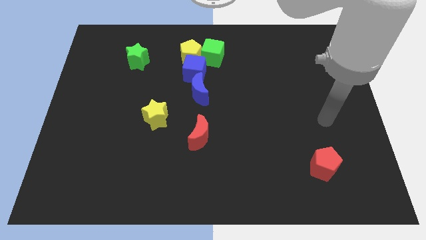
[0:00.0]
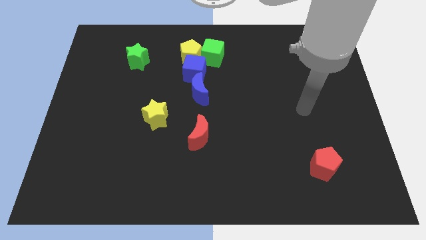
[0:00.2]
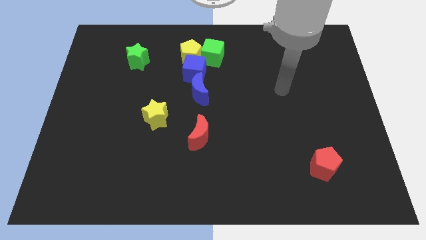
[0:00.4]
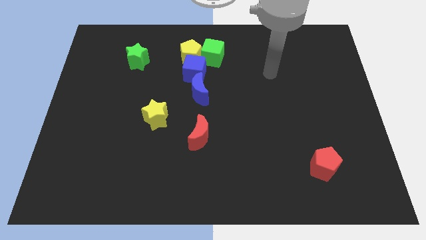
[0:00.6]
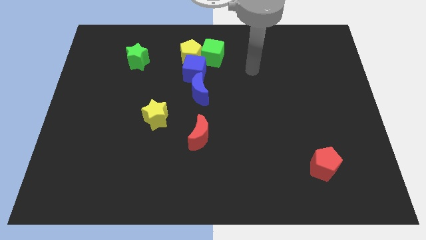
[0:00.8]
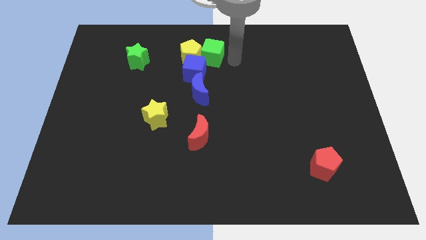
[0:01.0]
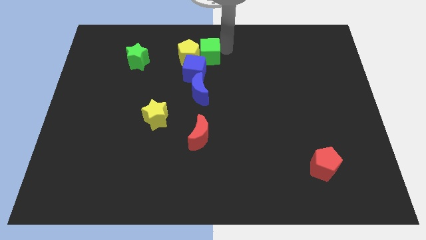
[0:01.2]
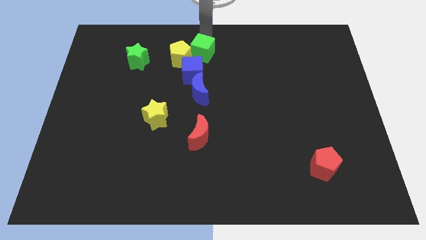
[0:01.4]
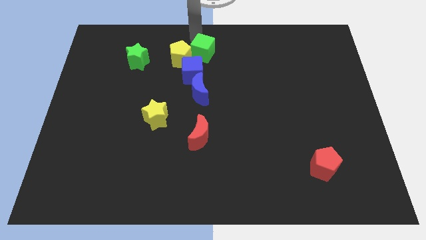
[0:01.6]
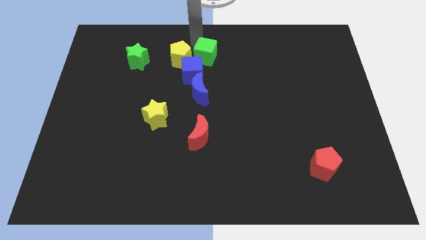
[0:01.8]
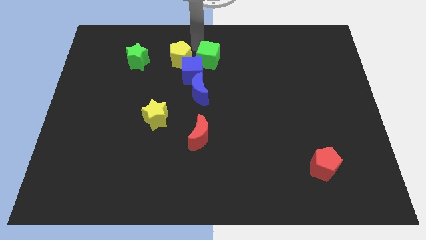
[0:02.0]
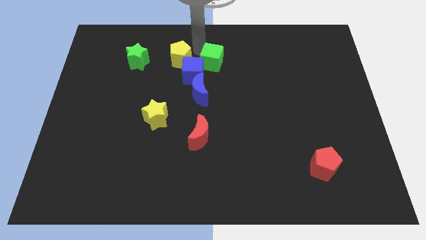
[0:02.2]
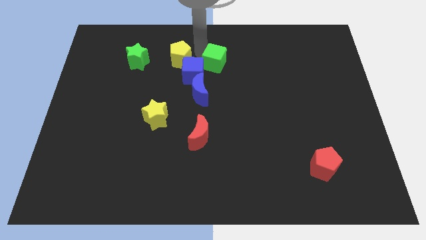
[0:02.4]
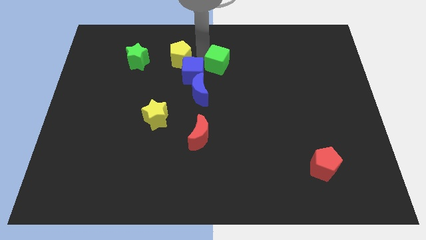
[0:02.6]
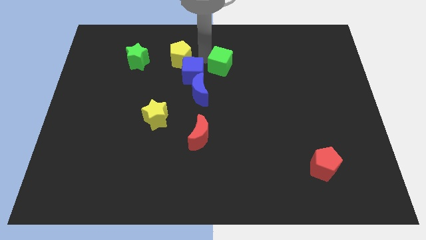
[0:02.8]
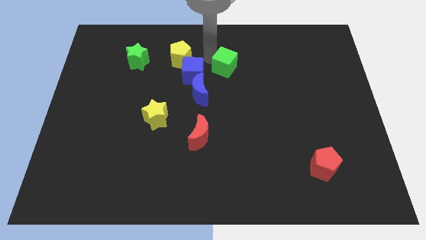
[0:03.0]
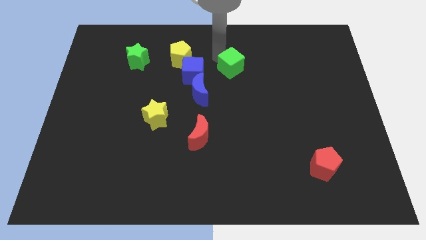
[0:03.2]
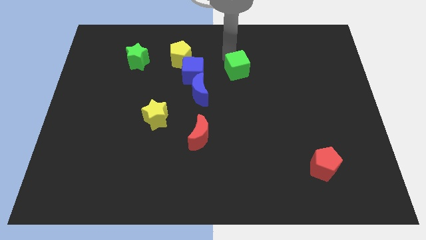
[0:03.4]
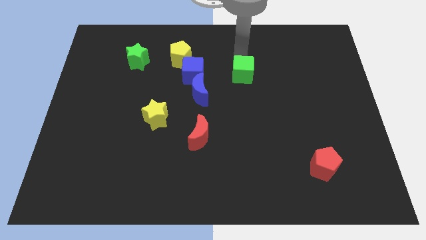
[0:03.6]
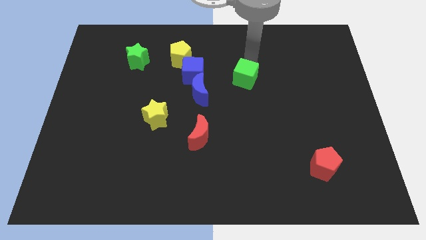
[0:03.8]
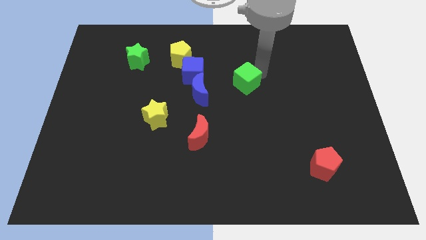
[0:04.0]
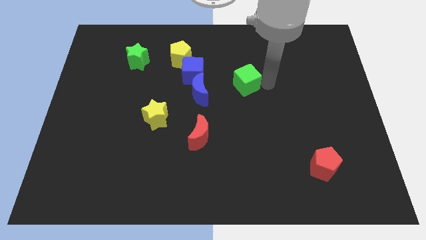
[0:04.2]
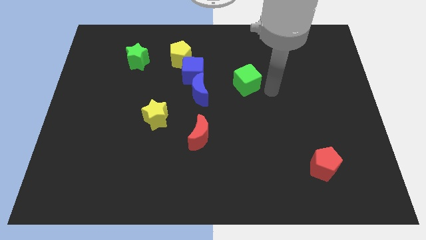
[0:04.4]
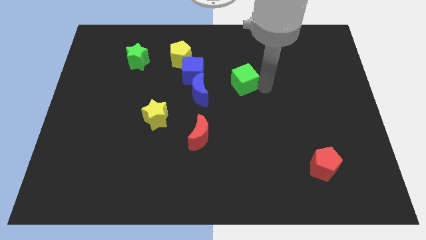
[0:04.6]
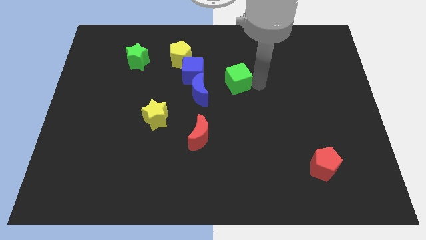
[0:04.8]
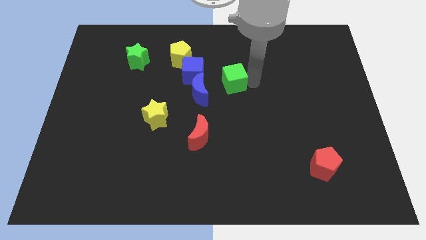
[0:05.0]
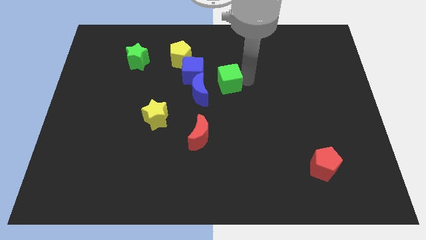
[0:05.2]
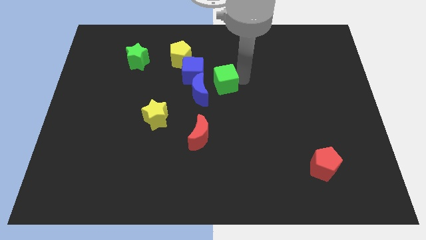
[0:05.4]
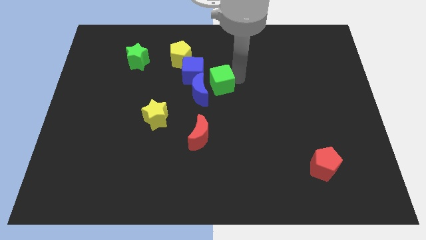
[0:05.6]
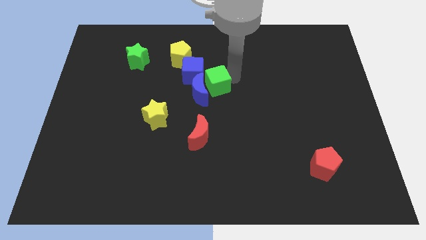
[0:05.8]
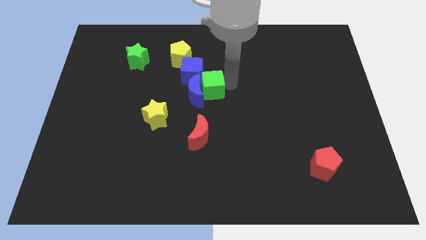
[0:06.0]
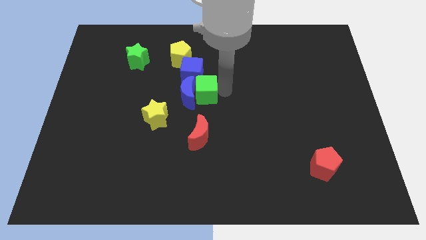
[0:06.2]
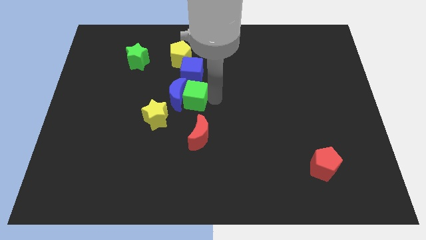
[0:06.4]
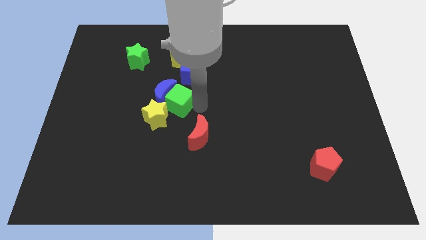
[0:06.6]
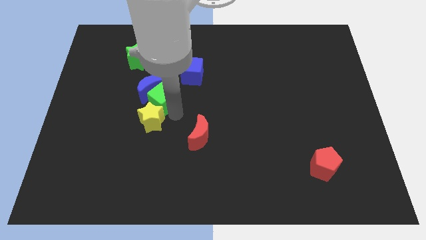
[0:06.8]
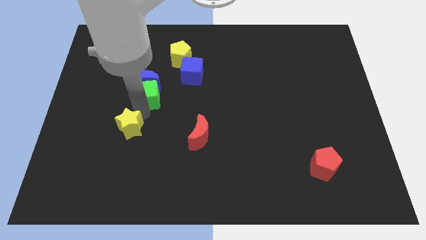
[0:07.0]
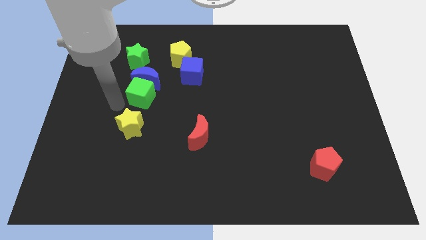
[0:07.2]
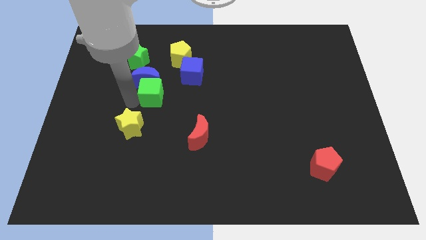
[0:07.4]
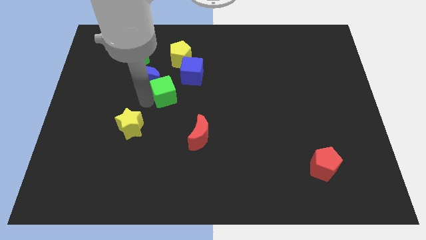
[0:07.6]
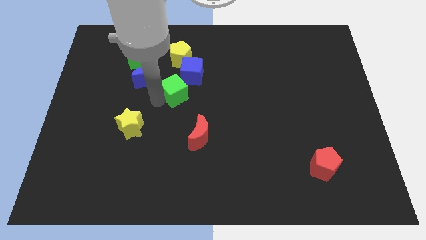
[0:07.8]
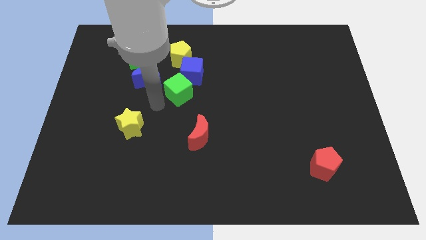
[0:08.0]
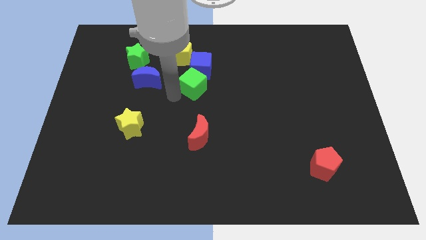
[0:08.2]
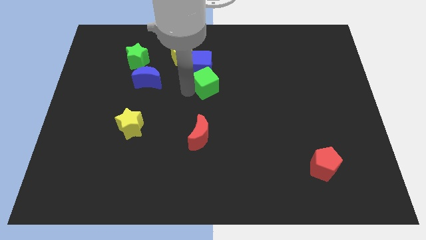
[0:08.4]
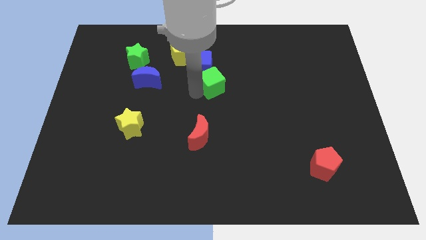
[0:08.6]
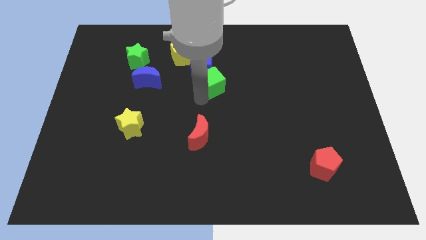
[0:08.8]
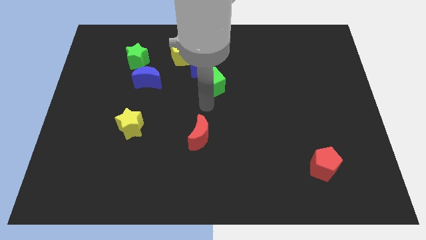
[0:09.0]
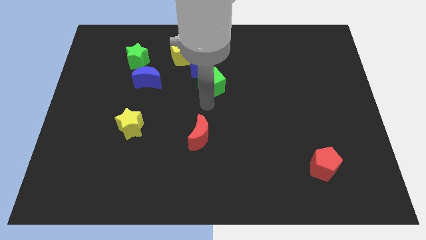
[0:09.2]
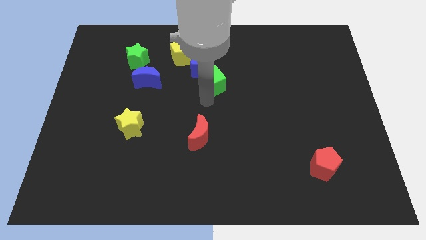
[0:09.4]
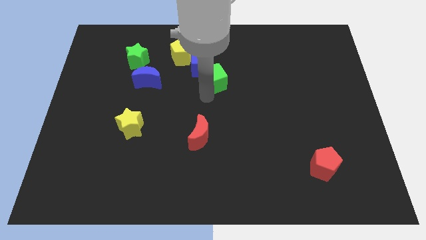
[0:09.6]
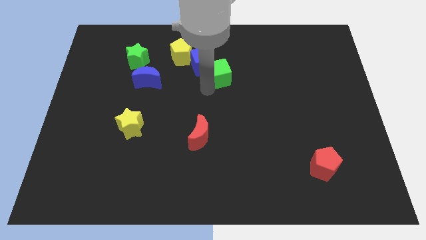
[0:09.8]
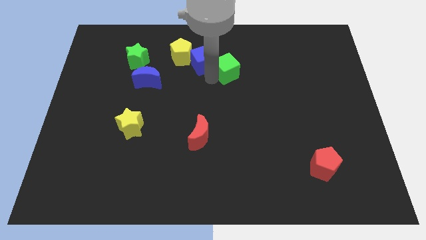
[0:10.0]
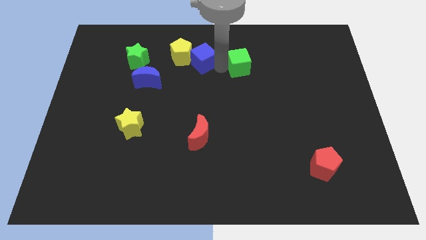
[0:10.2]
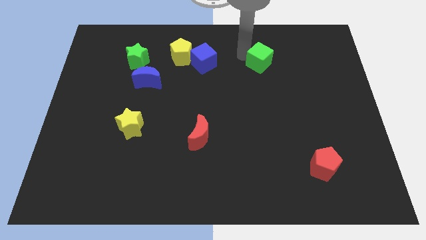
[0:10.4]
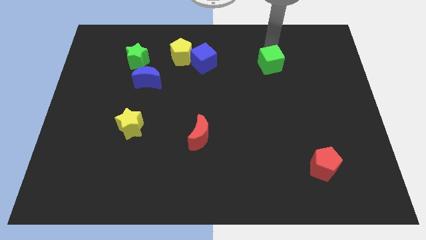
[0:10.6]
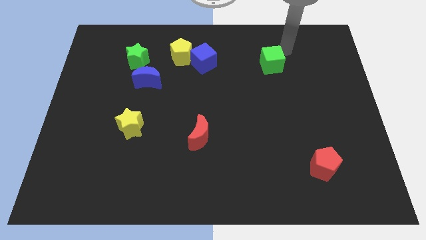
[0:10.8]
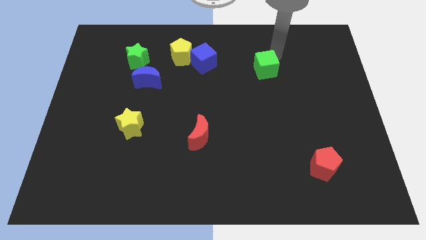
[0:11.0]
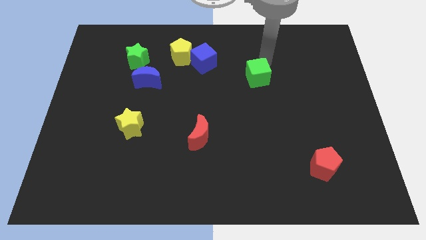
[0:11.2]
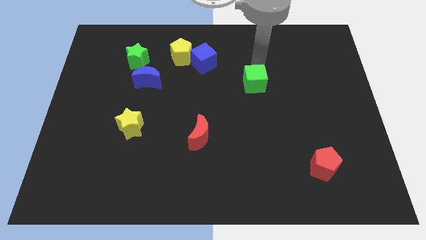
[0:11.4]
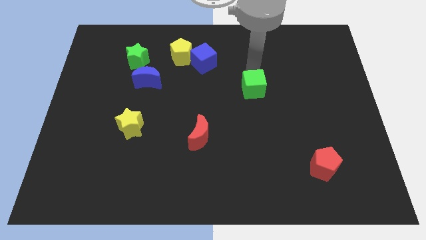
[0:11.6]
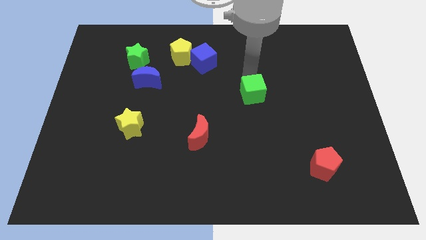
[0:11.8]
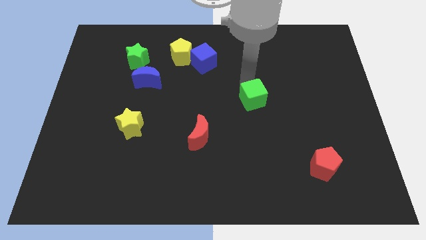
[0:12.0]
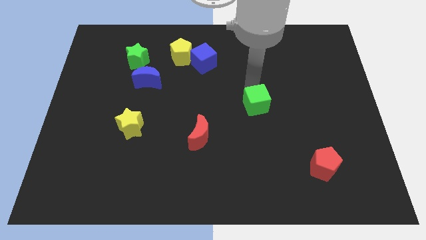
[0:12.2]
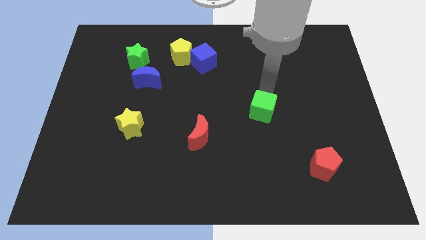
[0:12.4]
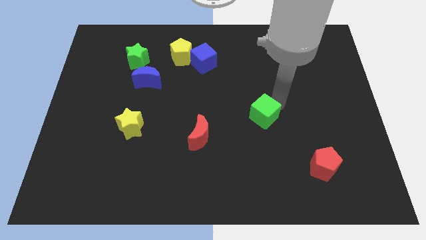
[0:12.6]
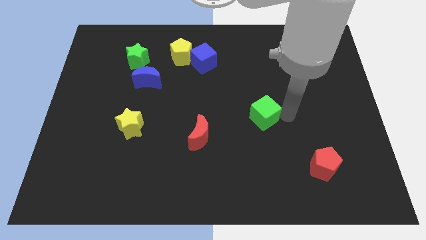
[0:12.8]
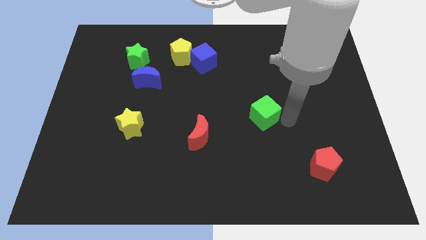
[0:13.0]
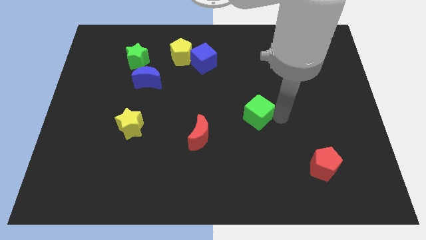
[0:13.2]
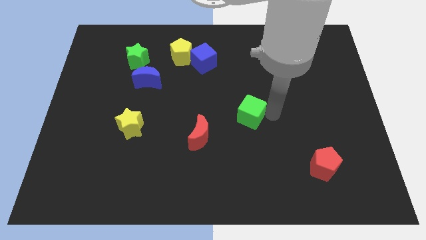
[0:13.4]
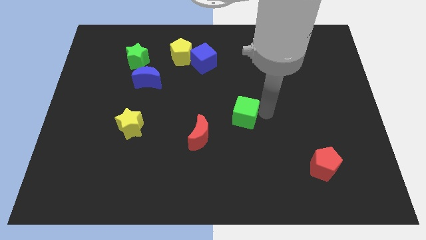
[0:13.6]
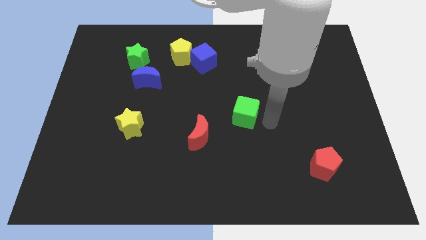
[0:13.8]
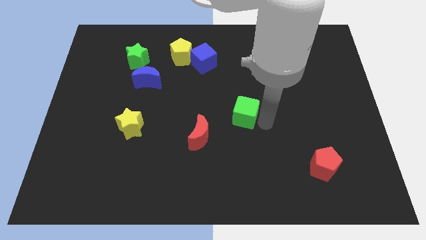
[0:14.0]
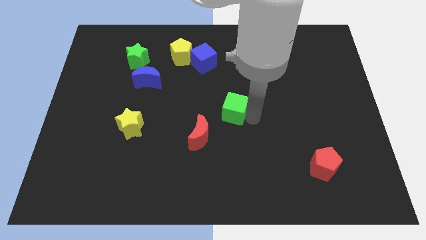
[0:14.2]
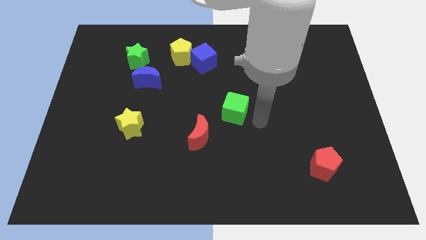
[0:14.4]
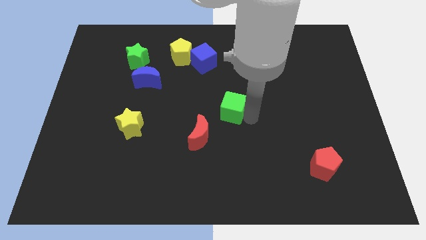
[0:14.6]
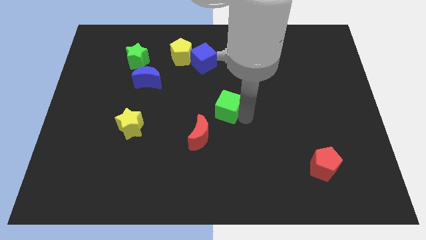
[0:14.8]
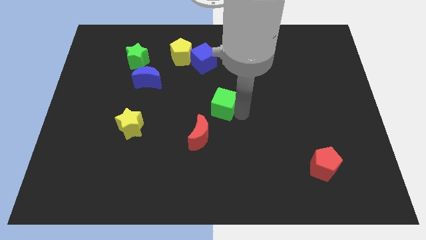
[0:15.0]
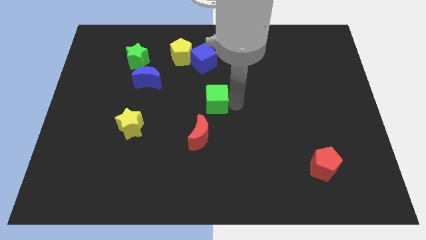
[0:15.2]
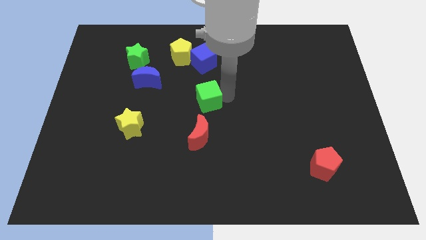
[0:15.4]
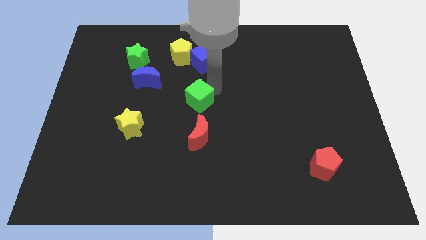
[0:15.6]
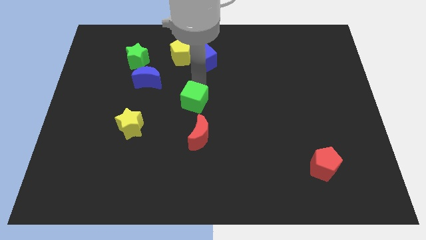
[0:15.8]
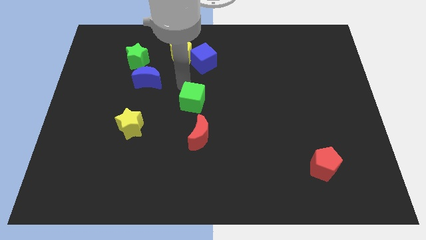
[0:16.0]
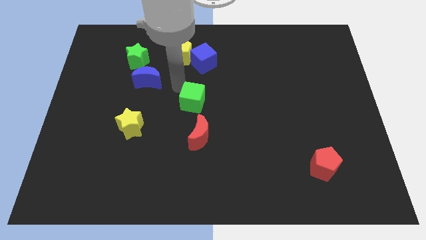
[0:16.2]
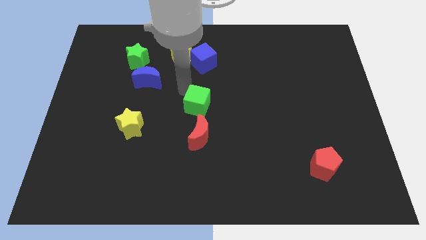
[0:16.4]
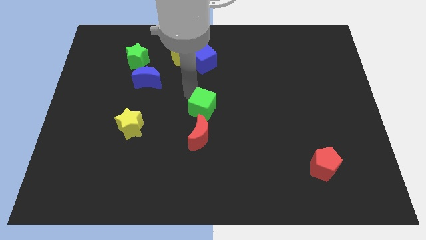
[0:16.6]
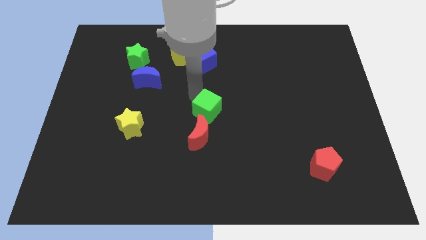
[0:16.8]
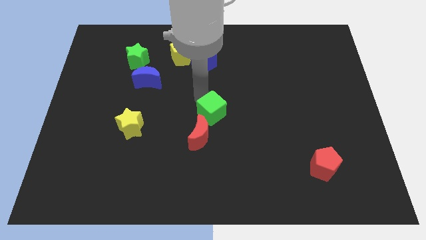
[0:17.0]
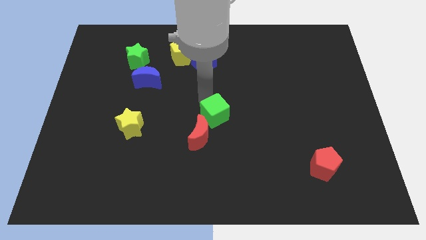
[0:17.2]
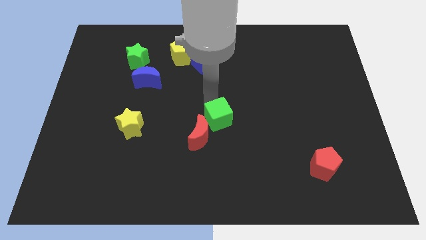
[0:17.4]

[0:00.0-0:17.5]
push the green cube down
